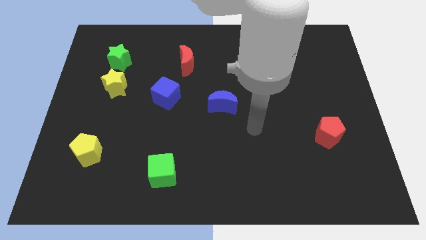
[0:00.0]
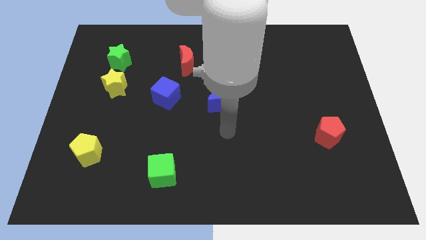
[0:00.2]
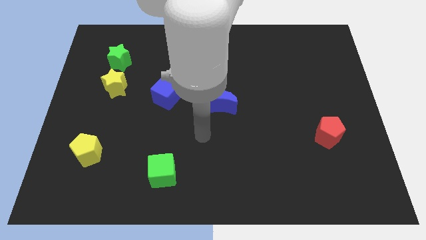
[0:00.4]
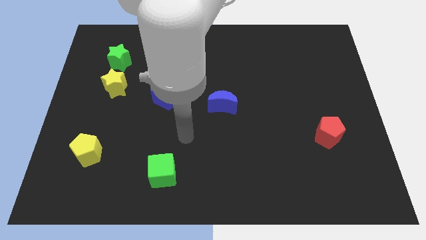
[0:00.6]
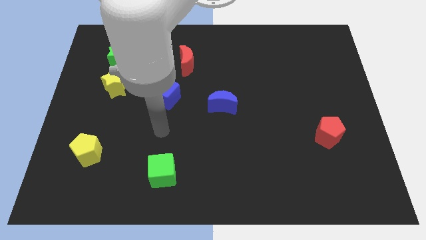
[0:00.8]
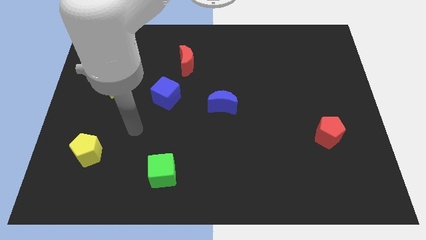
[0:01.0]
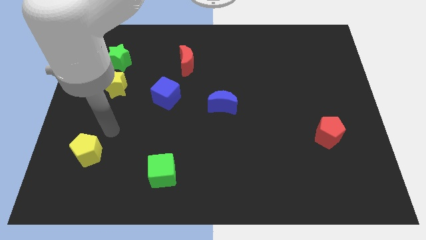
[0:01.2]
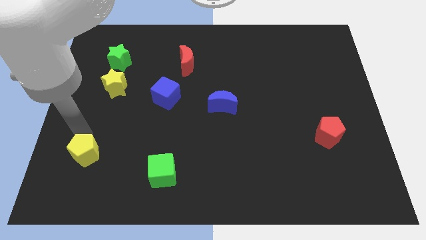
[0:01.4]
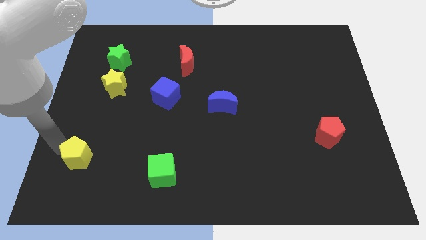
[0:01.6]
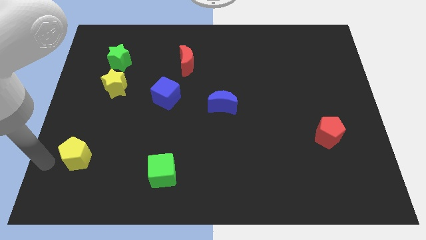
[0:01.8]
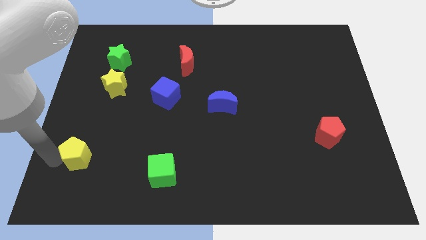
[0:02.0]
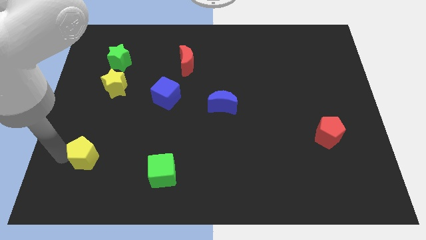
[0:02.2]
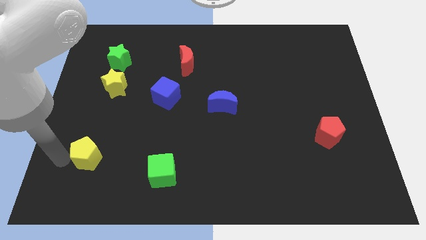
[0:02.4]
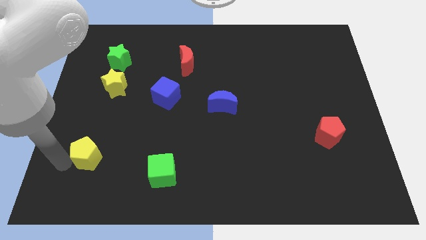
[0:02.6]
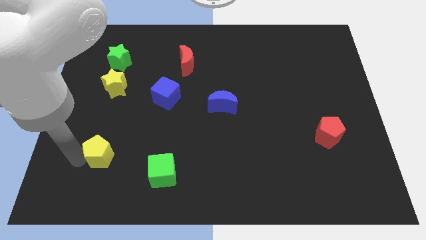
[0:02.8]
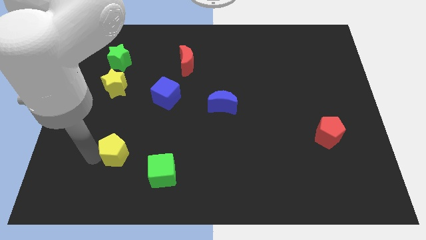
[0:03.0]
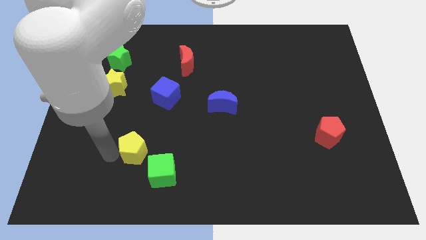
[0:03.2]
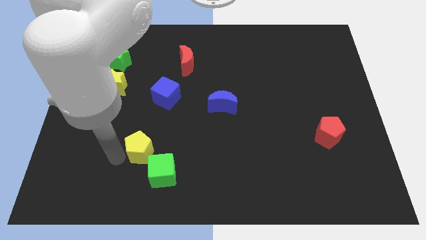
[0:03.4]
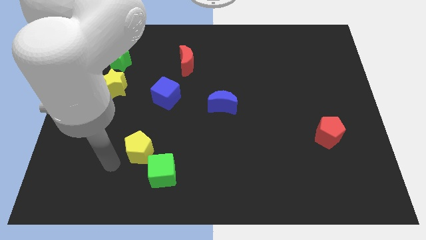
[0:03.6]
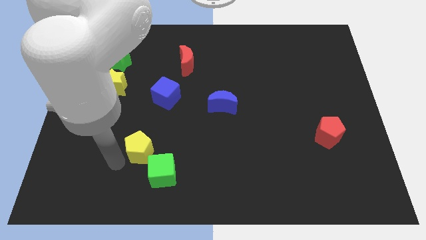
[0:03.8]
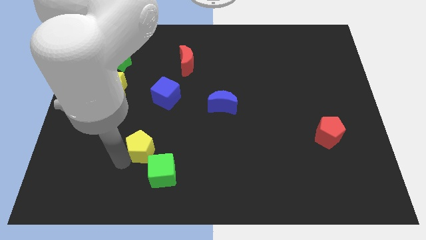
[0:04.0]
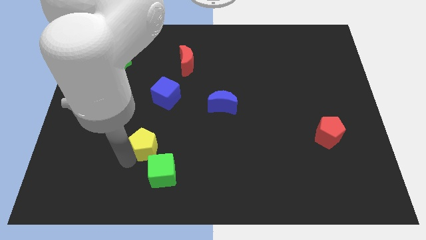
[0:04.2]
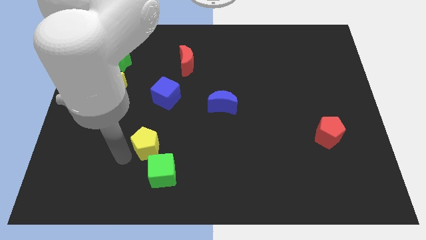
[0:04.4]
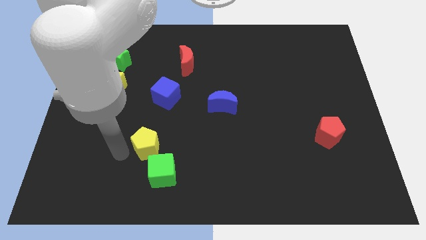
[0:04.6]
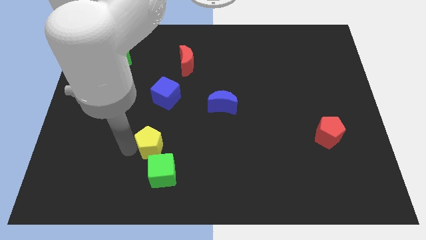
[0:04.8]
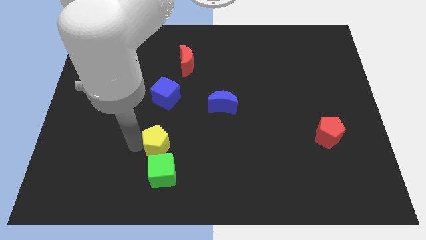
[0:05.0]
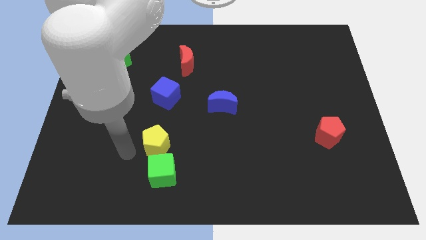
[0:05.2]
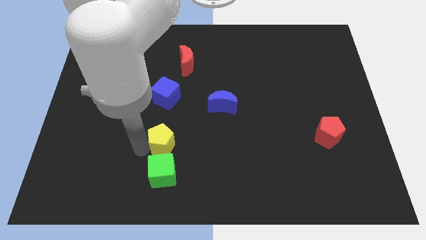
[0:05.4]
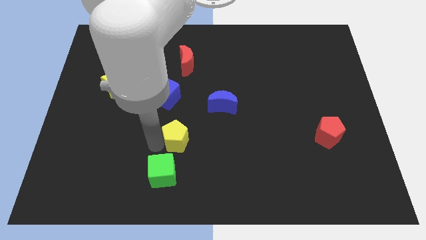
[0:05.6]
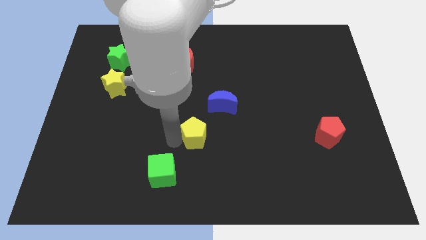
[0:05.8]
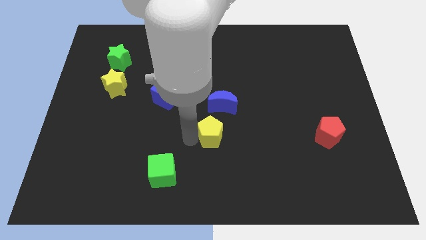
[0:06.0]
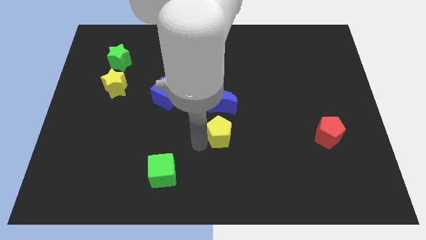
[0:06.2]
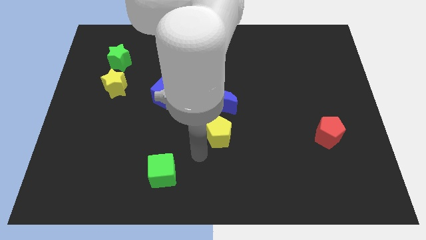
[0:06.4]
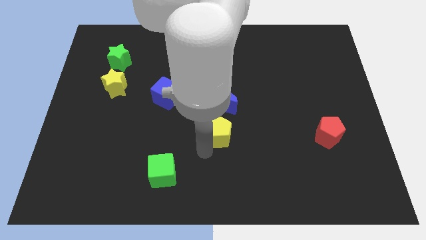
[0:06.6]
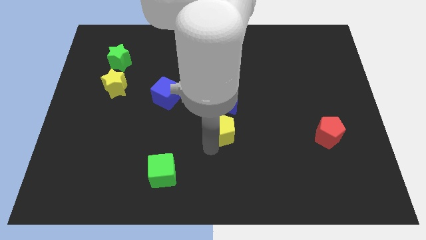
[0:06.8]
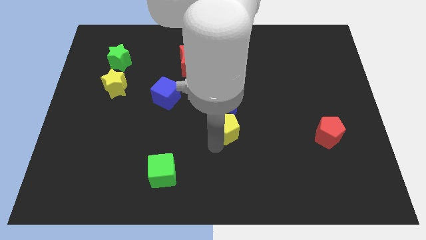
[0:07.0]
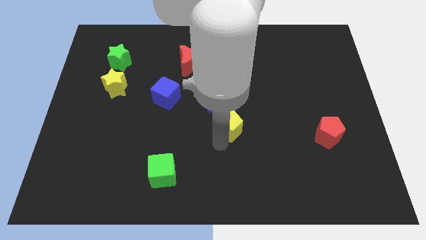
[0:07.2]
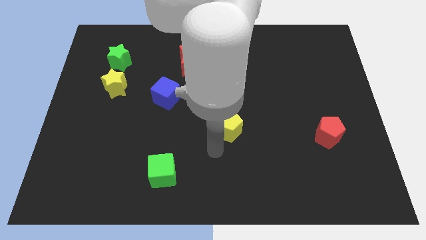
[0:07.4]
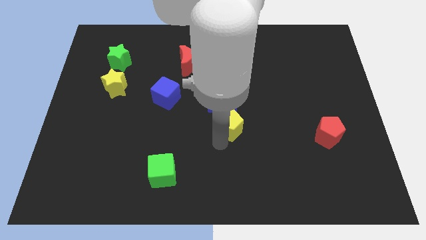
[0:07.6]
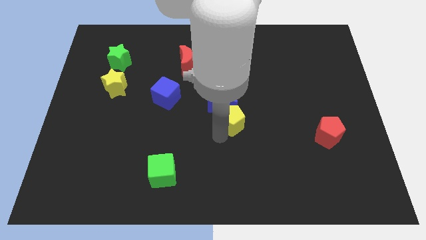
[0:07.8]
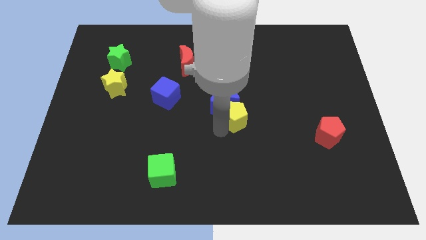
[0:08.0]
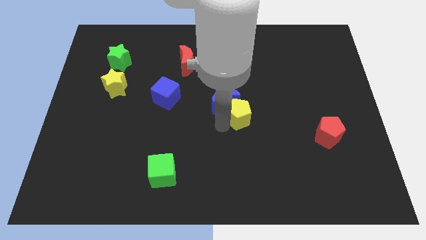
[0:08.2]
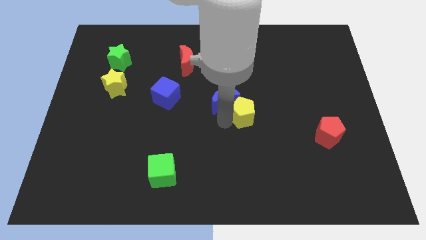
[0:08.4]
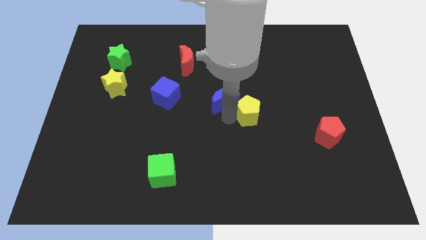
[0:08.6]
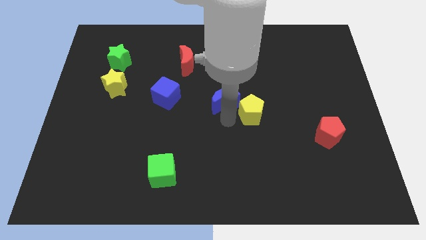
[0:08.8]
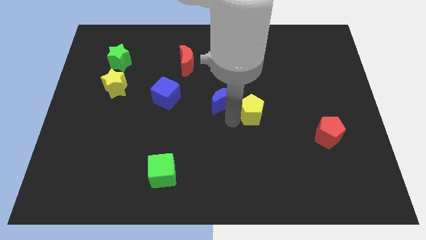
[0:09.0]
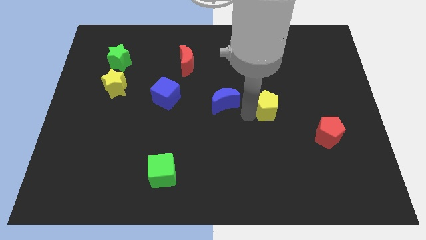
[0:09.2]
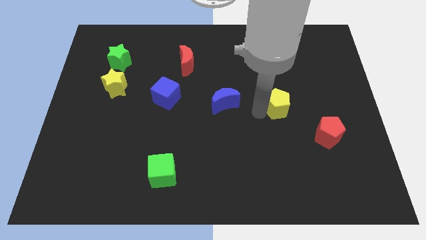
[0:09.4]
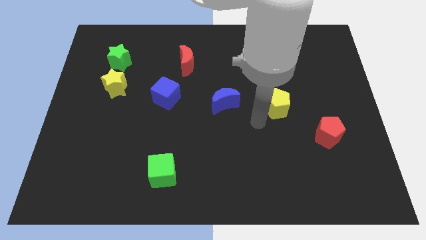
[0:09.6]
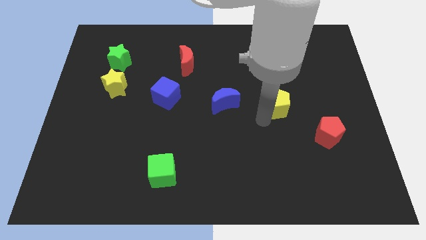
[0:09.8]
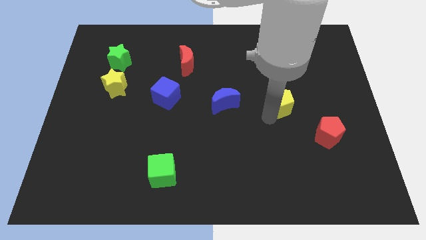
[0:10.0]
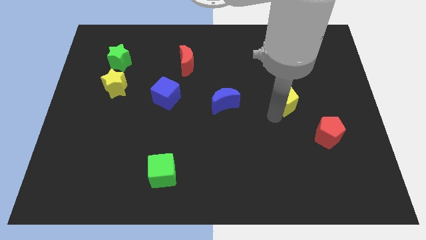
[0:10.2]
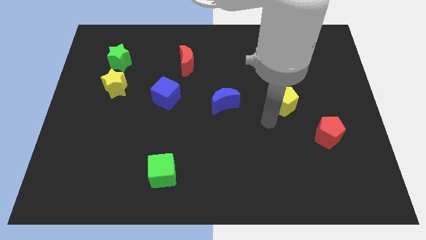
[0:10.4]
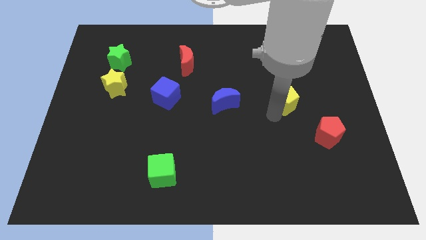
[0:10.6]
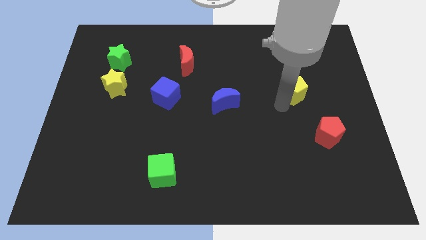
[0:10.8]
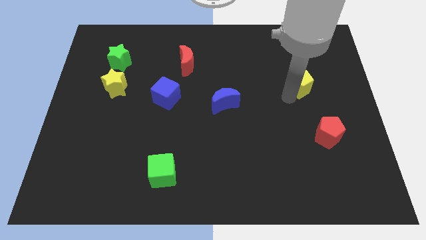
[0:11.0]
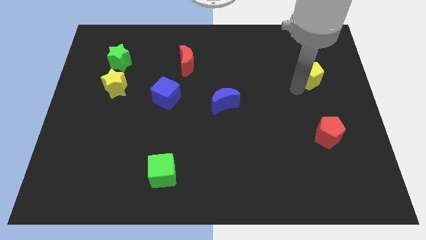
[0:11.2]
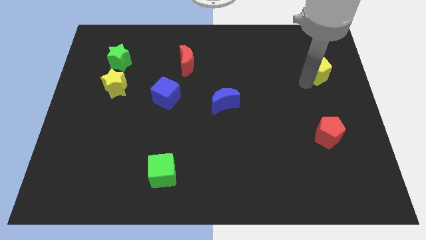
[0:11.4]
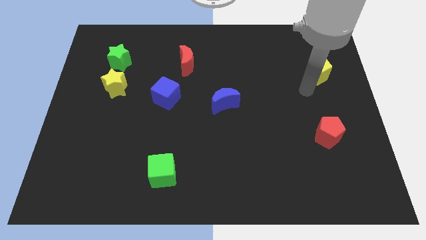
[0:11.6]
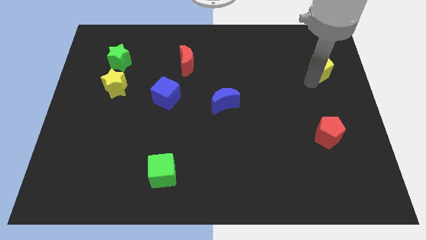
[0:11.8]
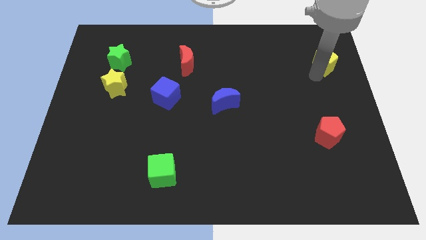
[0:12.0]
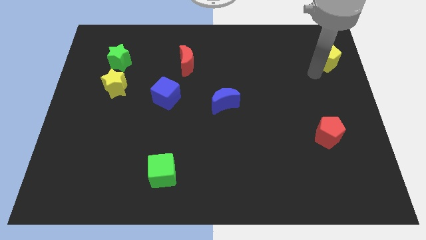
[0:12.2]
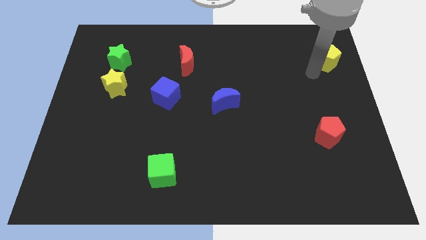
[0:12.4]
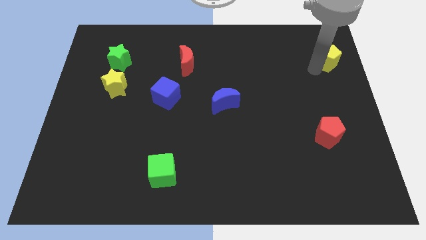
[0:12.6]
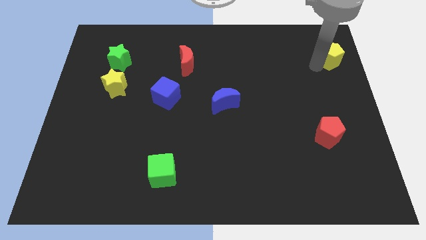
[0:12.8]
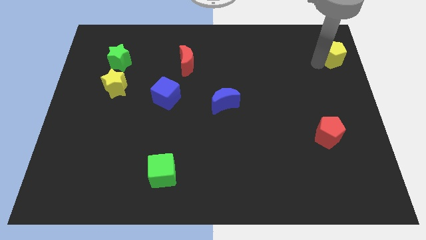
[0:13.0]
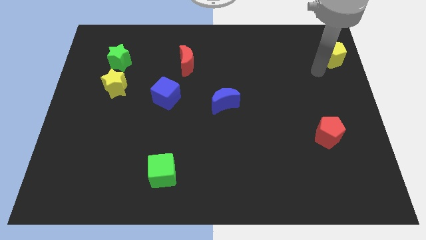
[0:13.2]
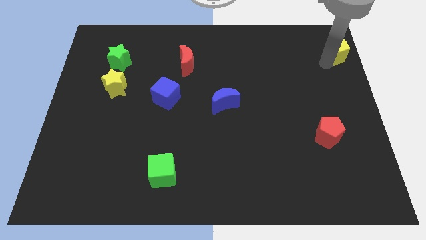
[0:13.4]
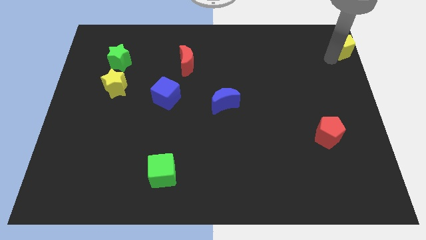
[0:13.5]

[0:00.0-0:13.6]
move the yellow pentagon to the top right of the board

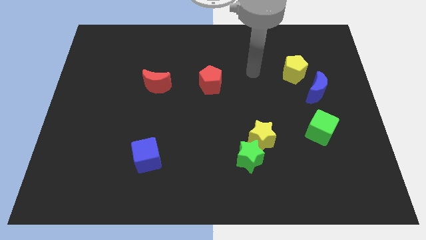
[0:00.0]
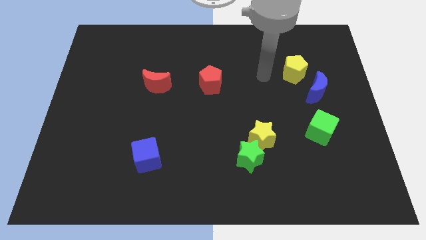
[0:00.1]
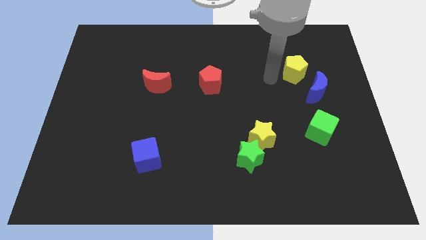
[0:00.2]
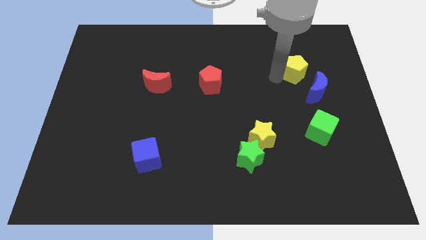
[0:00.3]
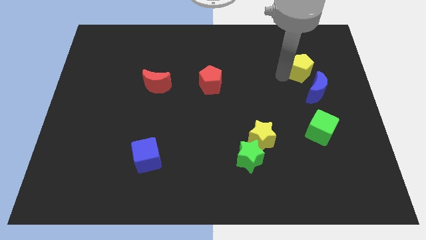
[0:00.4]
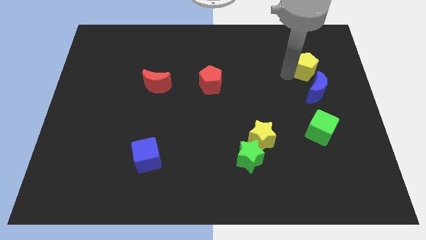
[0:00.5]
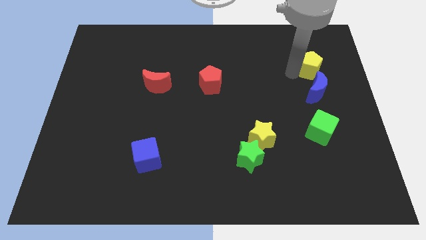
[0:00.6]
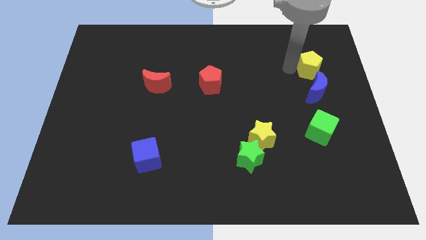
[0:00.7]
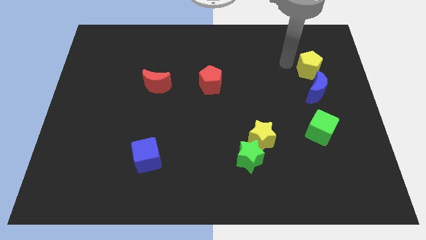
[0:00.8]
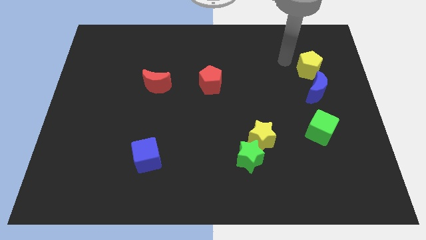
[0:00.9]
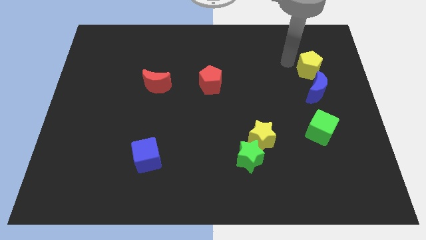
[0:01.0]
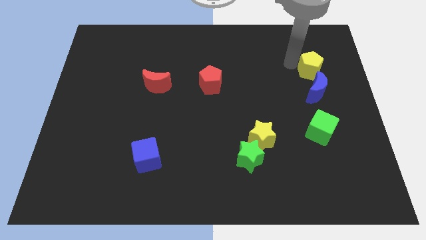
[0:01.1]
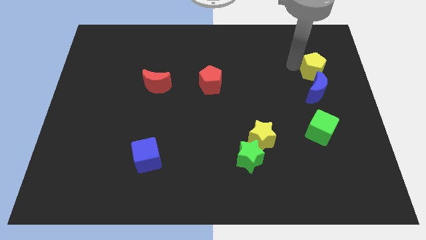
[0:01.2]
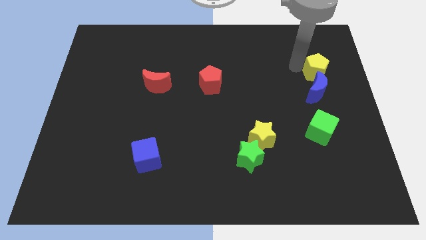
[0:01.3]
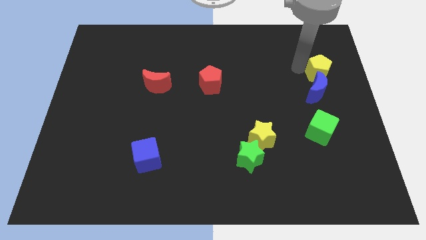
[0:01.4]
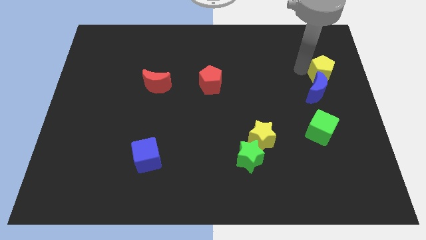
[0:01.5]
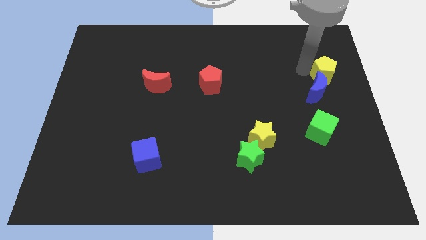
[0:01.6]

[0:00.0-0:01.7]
move the yellow pentagon to the right side
